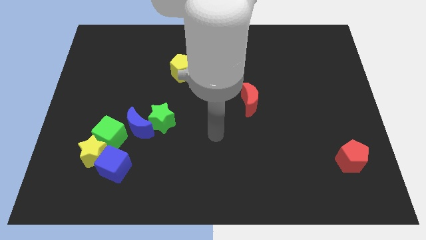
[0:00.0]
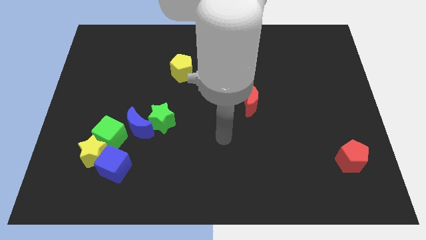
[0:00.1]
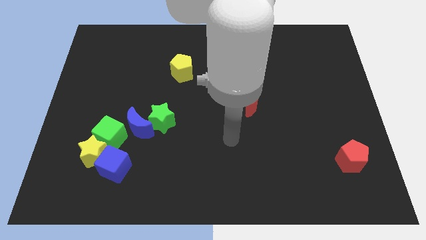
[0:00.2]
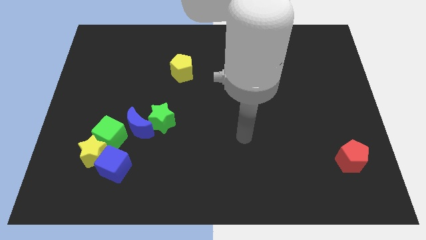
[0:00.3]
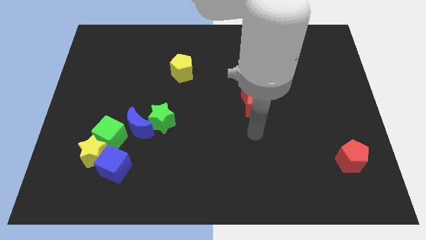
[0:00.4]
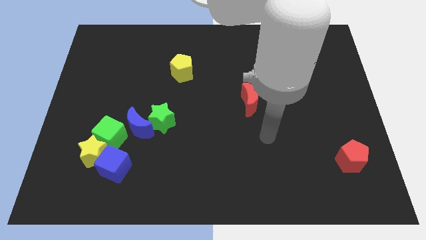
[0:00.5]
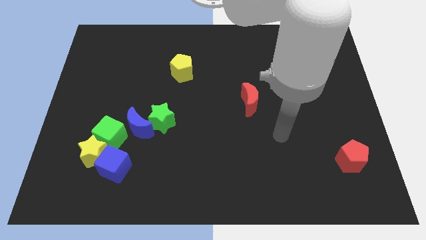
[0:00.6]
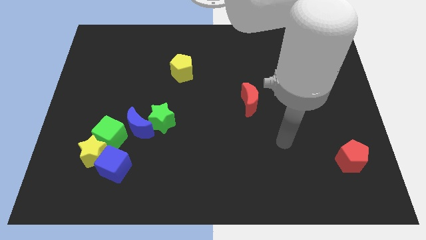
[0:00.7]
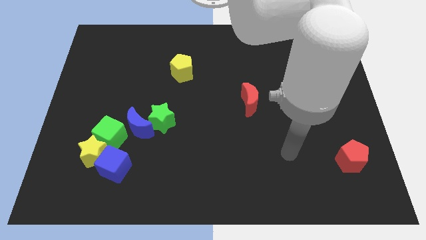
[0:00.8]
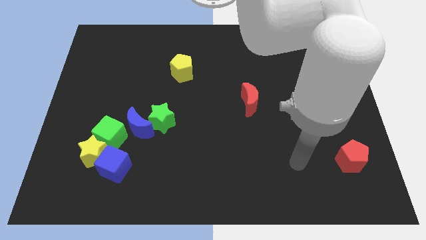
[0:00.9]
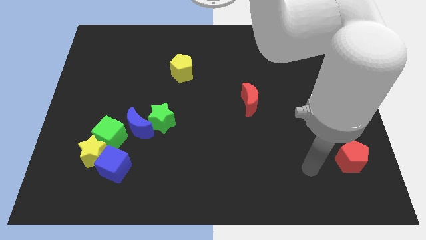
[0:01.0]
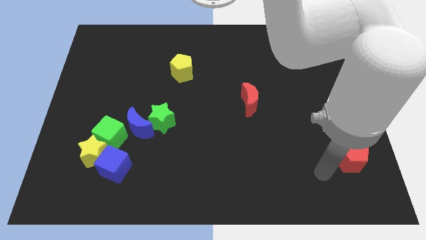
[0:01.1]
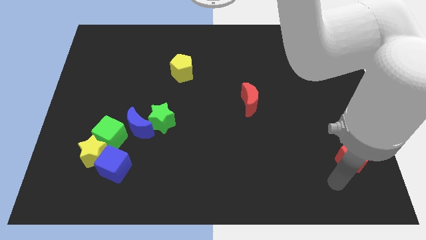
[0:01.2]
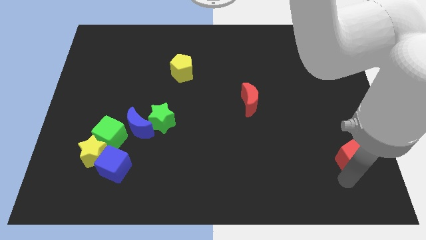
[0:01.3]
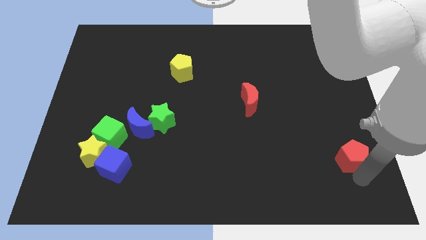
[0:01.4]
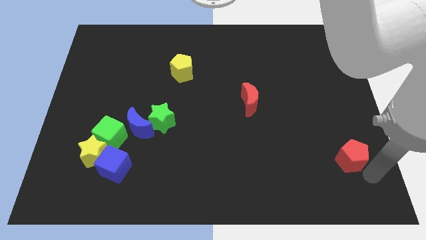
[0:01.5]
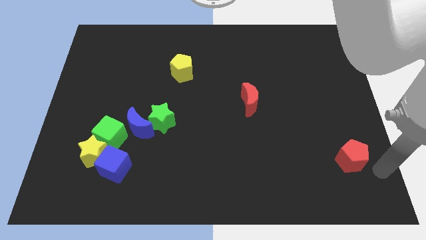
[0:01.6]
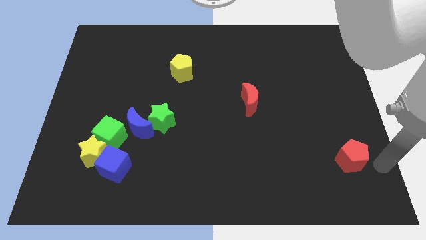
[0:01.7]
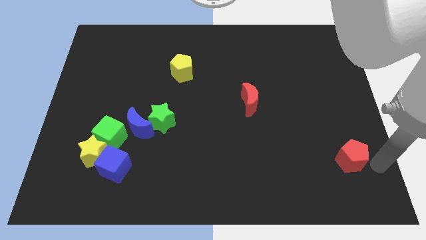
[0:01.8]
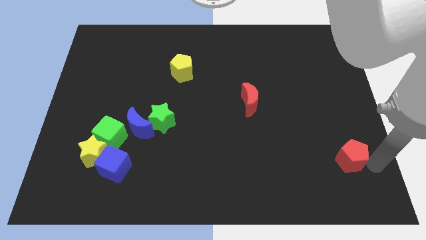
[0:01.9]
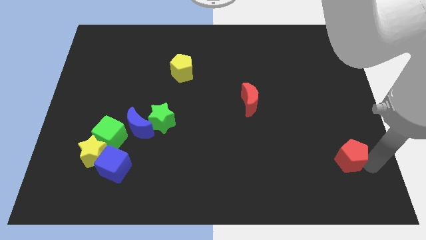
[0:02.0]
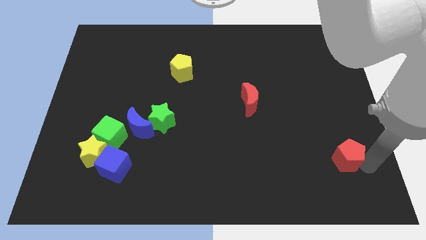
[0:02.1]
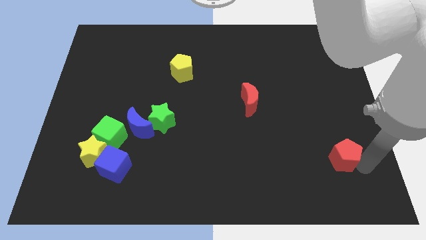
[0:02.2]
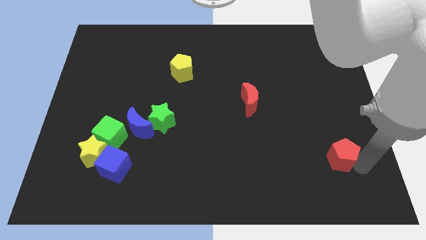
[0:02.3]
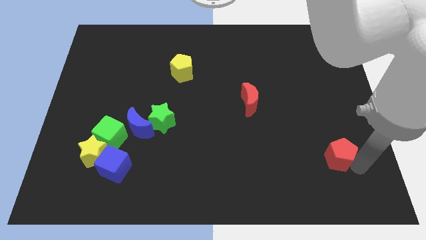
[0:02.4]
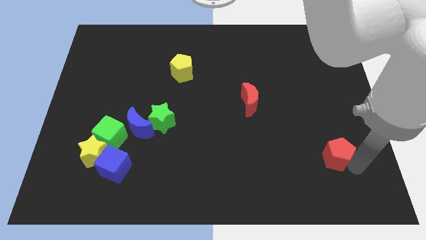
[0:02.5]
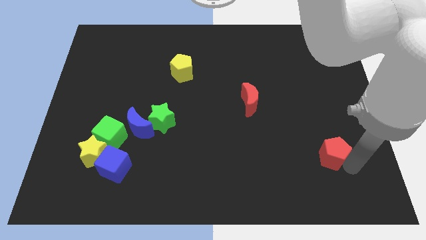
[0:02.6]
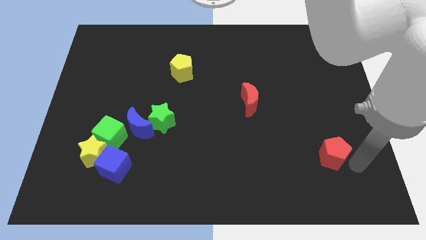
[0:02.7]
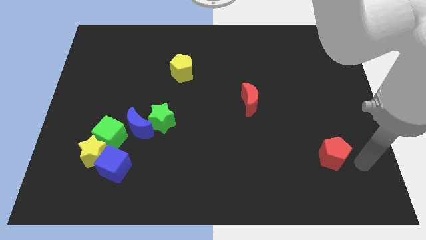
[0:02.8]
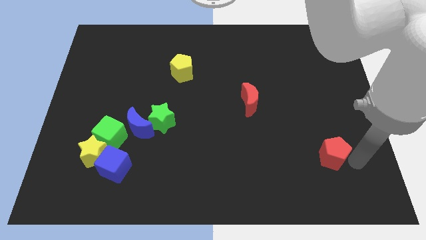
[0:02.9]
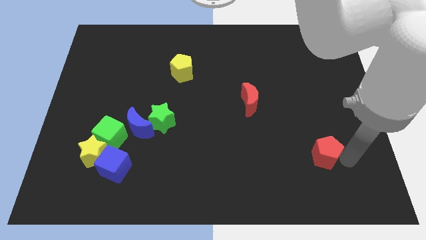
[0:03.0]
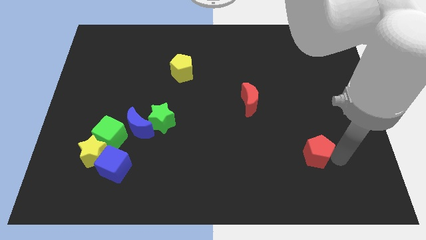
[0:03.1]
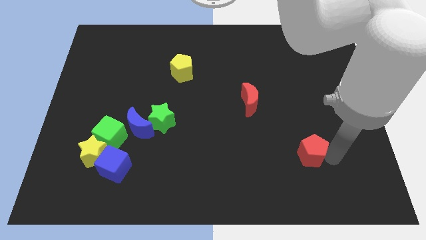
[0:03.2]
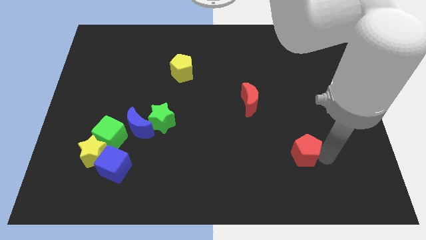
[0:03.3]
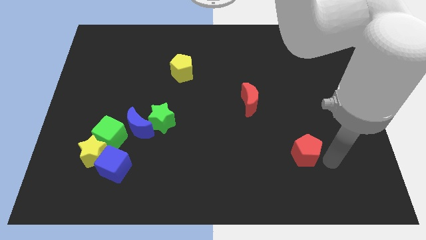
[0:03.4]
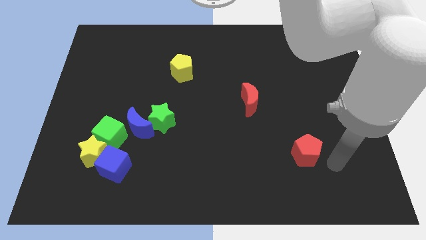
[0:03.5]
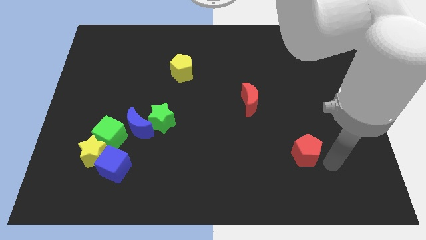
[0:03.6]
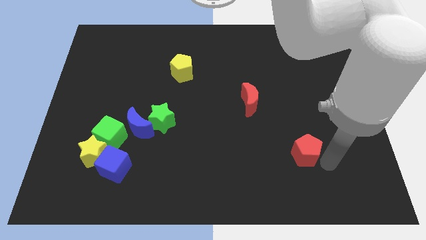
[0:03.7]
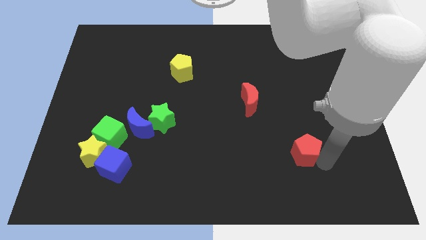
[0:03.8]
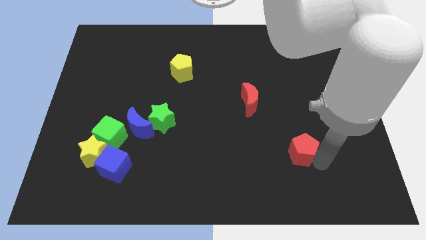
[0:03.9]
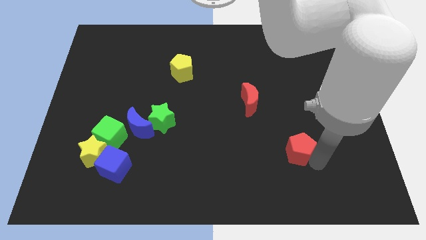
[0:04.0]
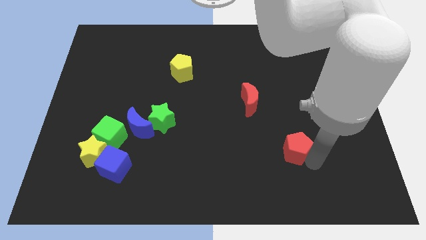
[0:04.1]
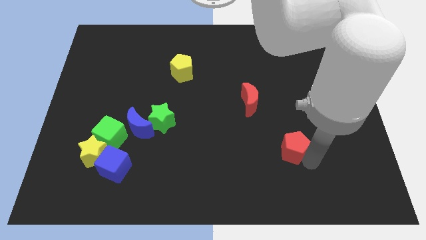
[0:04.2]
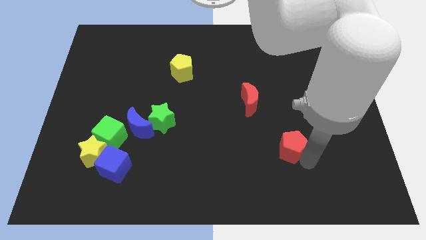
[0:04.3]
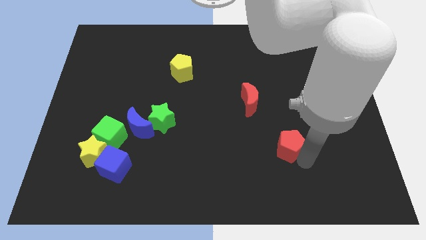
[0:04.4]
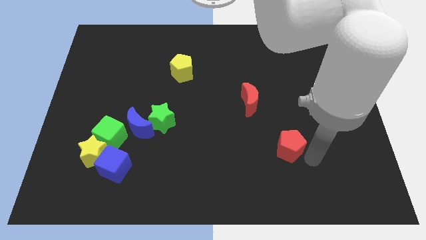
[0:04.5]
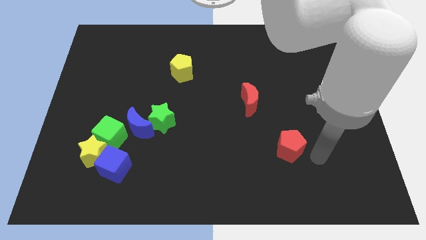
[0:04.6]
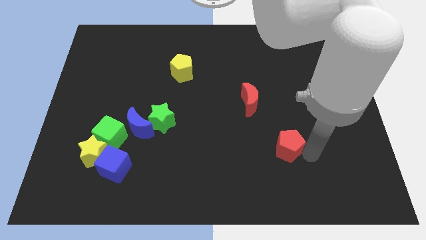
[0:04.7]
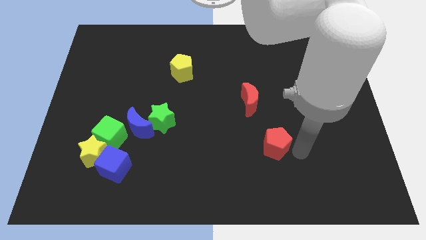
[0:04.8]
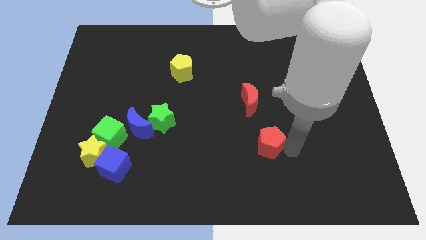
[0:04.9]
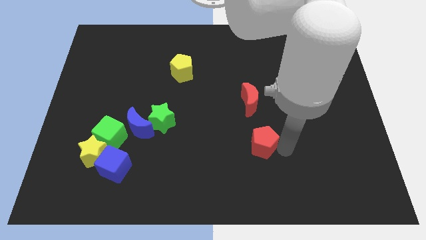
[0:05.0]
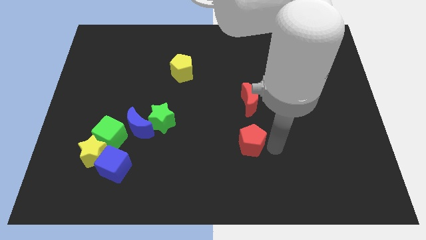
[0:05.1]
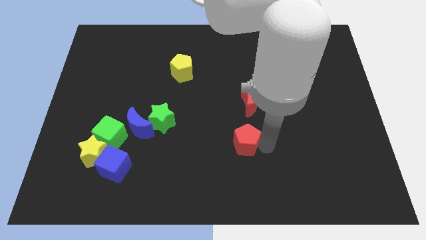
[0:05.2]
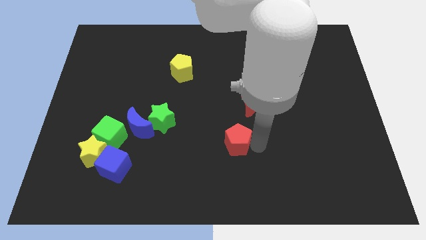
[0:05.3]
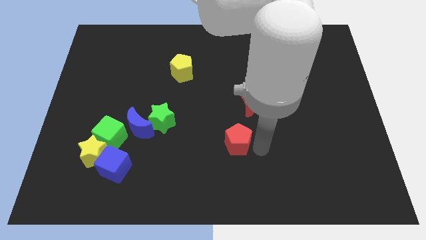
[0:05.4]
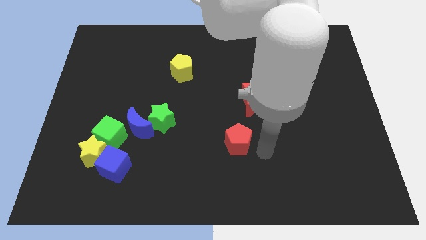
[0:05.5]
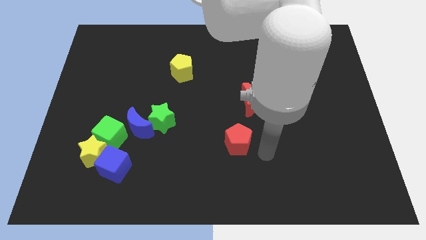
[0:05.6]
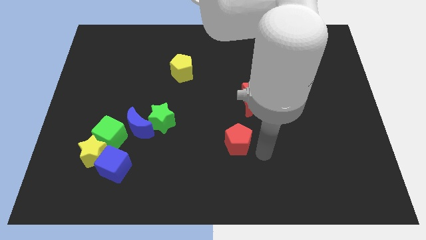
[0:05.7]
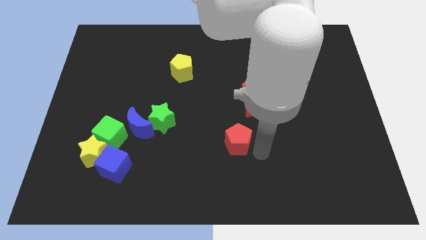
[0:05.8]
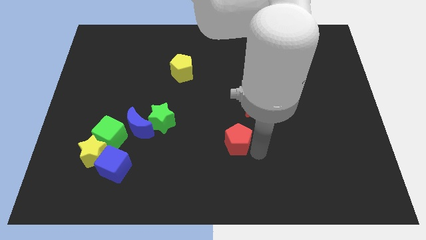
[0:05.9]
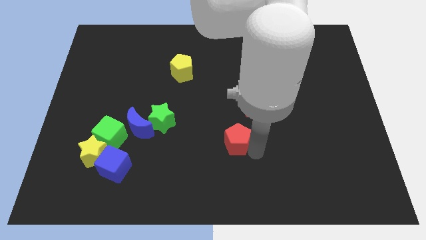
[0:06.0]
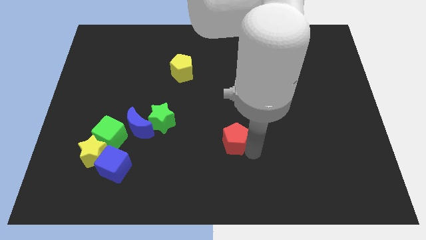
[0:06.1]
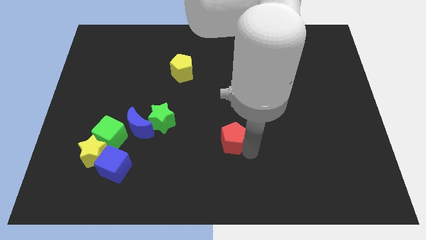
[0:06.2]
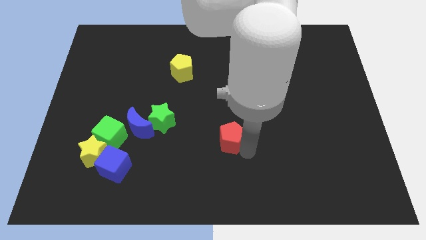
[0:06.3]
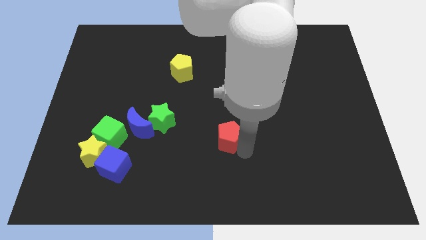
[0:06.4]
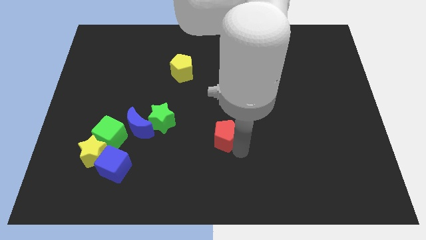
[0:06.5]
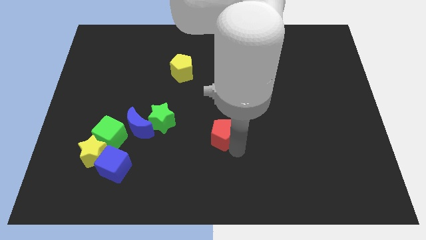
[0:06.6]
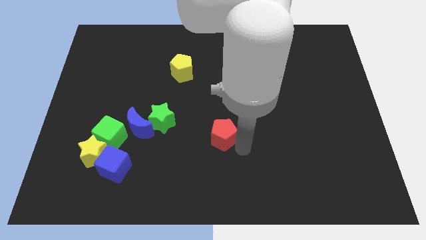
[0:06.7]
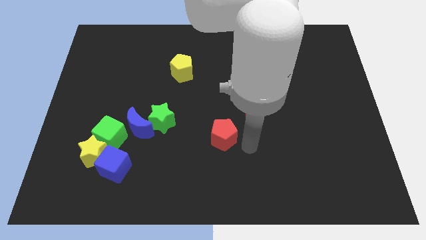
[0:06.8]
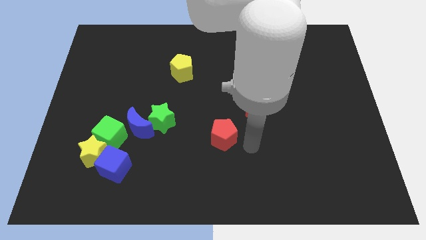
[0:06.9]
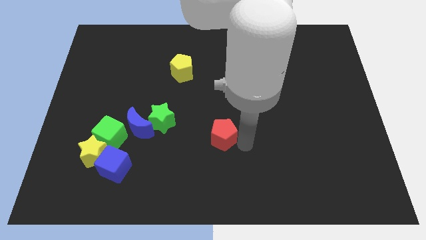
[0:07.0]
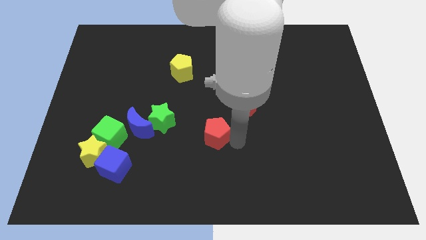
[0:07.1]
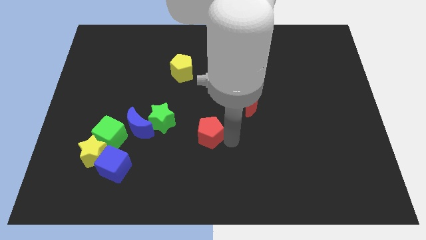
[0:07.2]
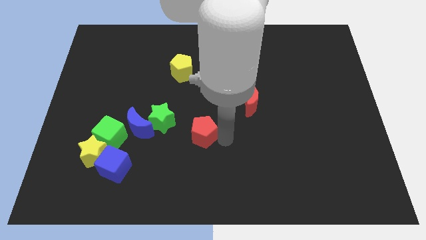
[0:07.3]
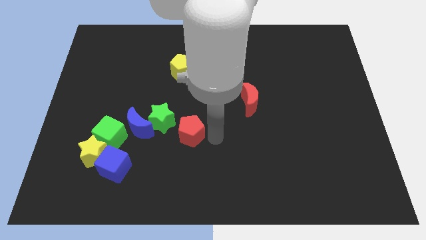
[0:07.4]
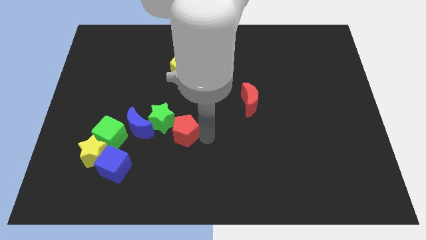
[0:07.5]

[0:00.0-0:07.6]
put the red pentagon to the green star
